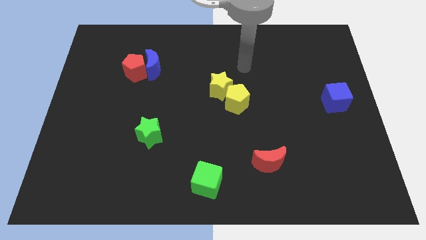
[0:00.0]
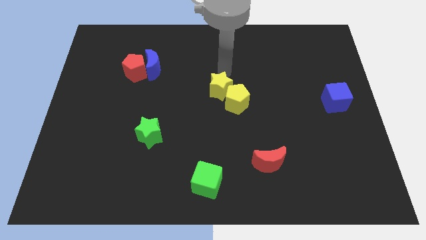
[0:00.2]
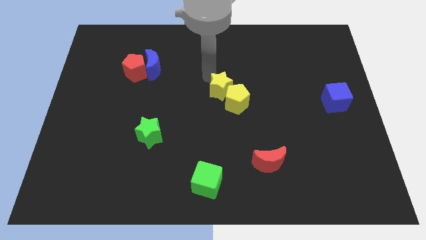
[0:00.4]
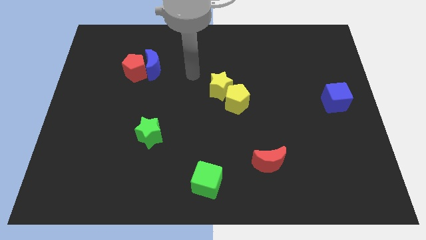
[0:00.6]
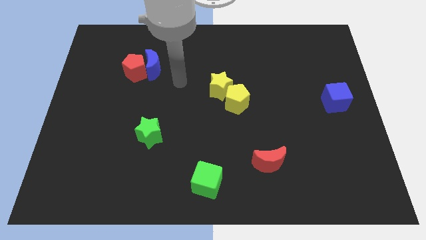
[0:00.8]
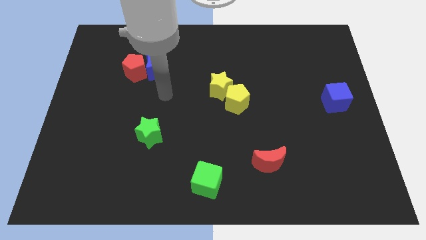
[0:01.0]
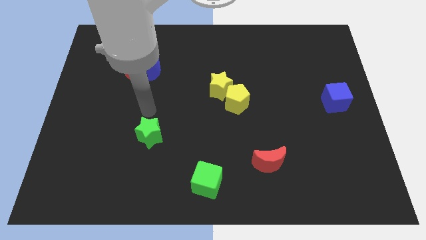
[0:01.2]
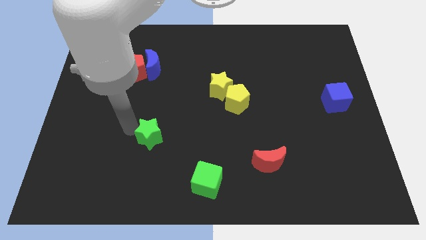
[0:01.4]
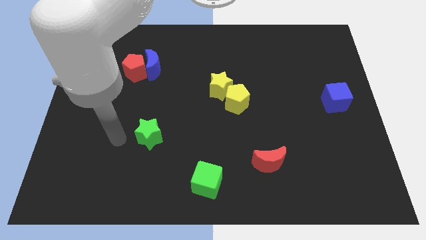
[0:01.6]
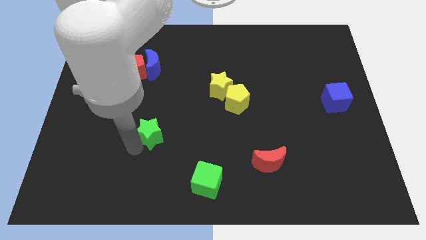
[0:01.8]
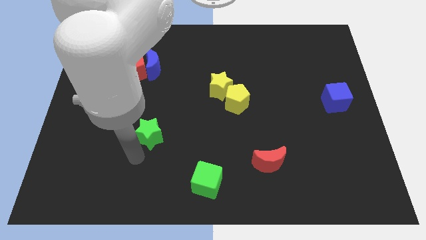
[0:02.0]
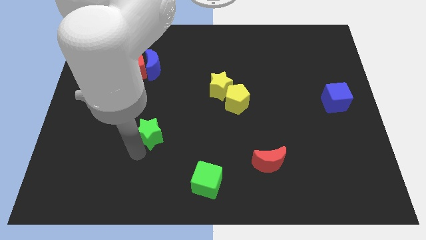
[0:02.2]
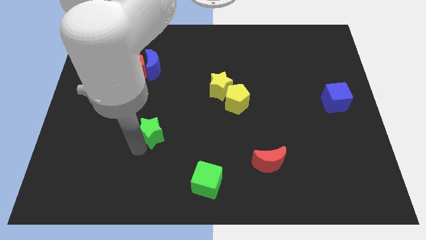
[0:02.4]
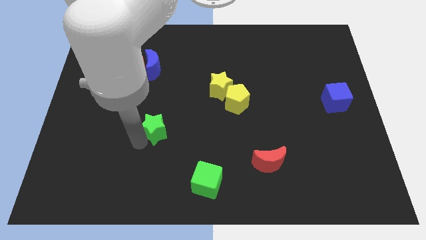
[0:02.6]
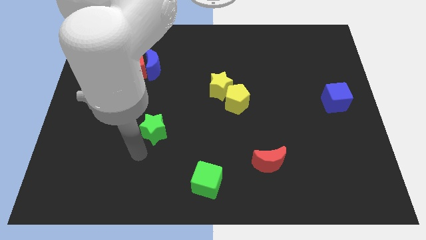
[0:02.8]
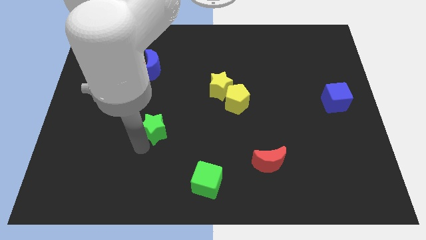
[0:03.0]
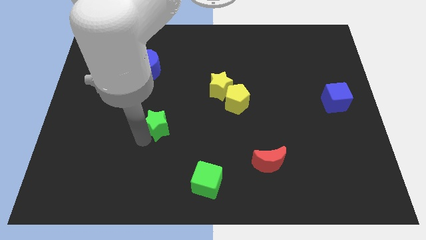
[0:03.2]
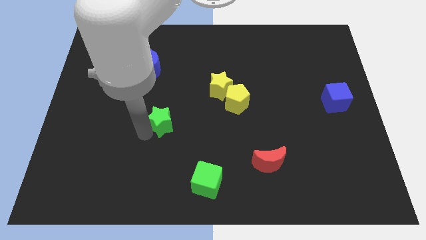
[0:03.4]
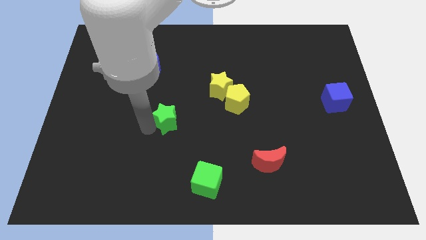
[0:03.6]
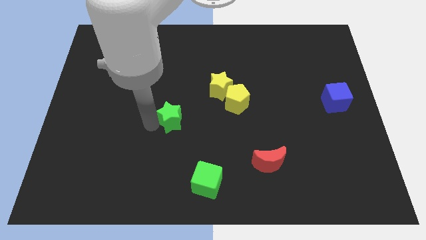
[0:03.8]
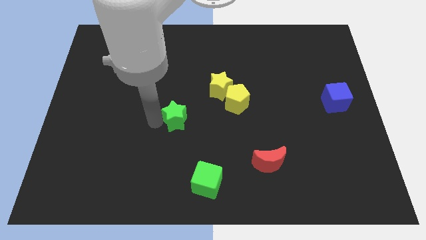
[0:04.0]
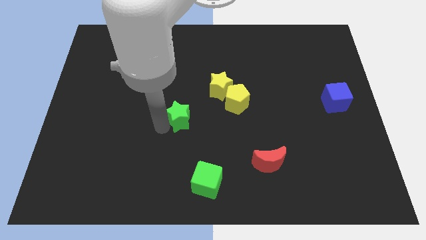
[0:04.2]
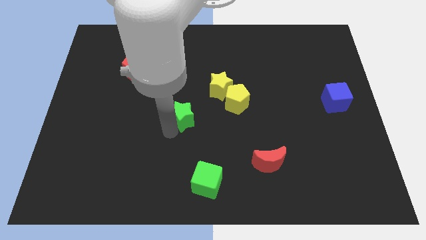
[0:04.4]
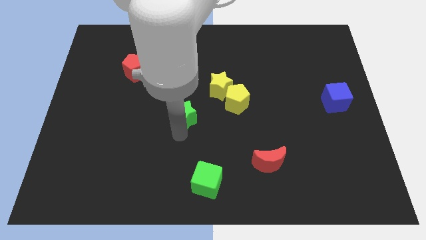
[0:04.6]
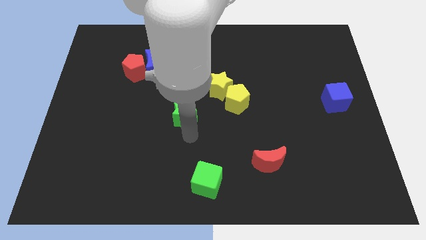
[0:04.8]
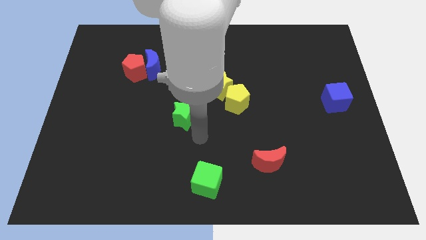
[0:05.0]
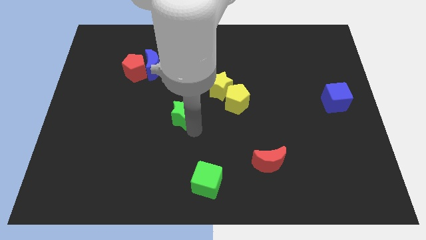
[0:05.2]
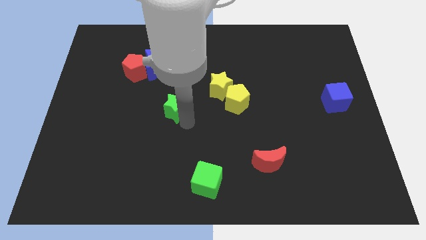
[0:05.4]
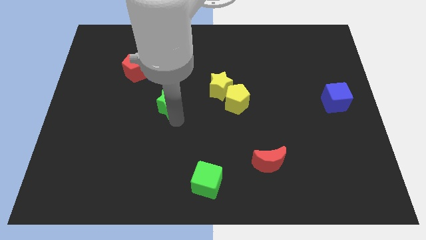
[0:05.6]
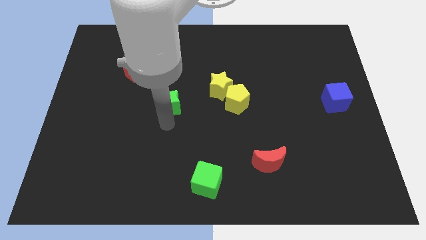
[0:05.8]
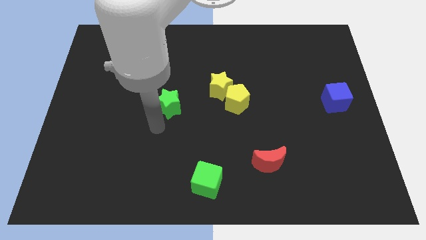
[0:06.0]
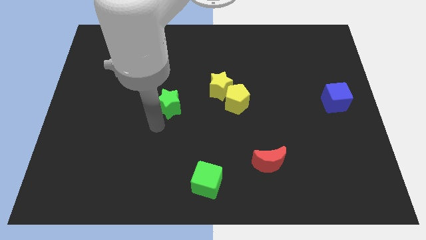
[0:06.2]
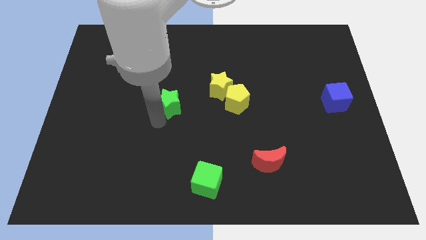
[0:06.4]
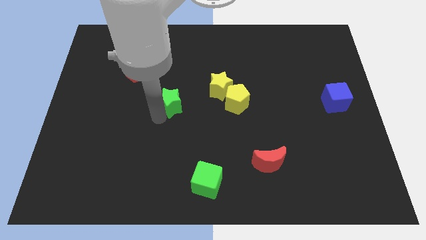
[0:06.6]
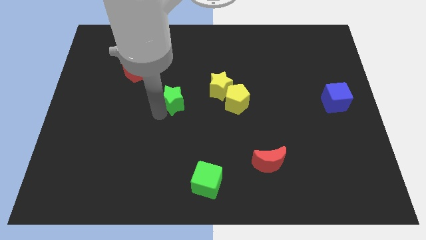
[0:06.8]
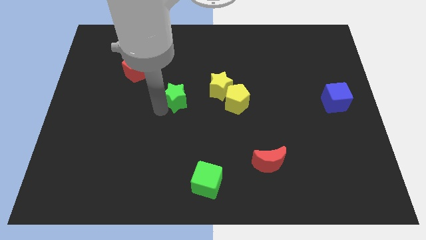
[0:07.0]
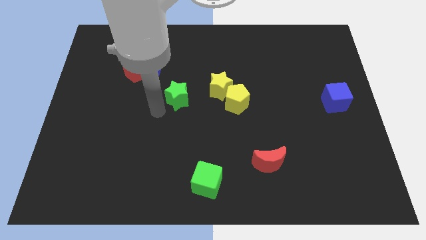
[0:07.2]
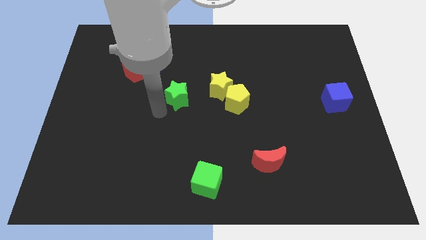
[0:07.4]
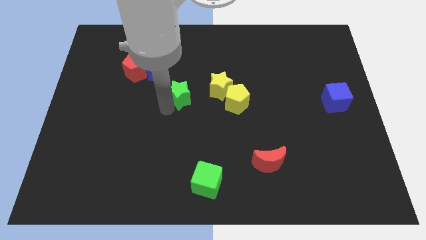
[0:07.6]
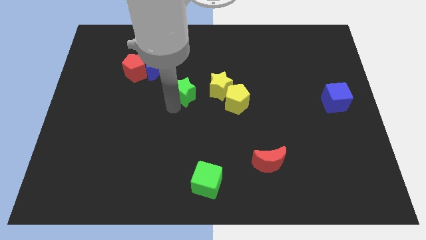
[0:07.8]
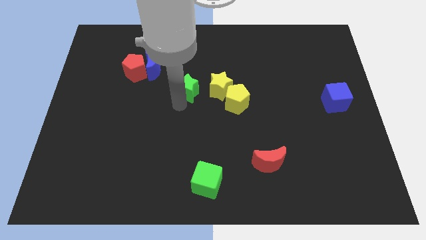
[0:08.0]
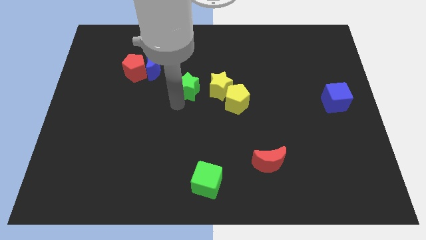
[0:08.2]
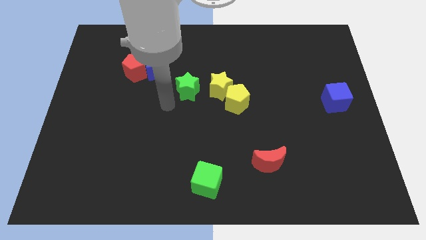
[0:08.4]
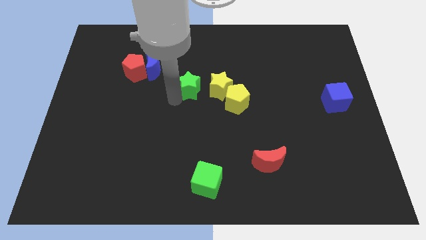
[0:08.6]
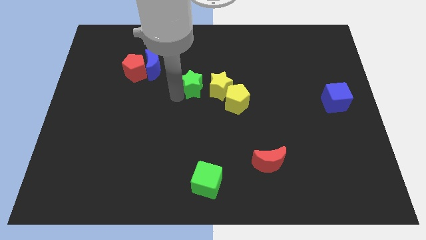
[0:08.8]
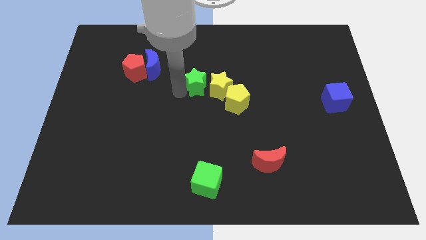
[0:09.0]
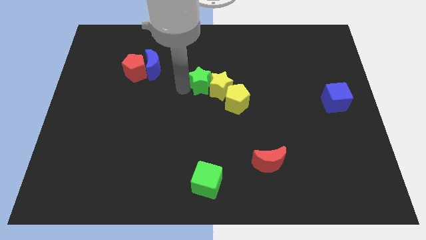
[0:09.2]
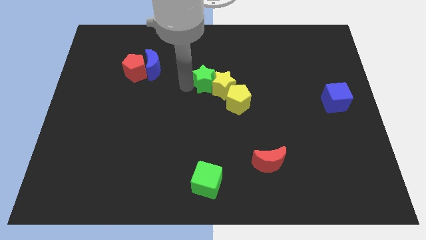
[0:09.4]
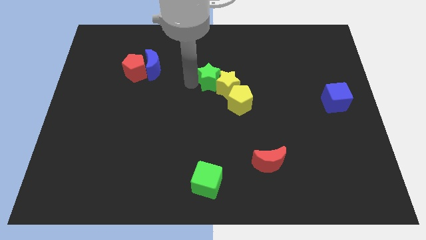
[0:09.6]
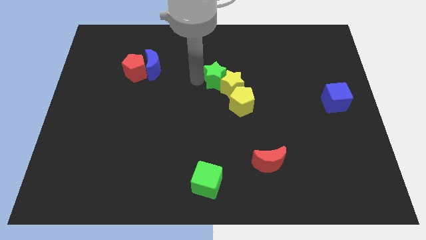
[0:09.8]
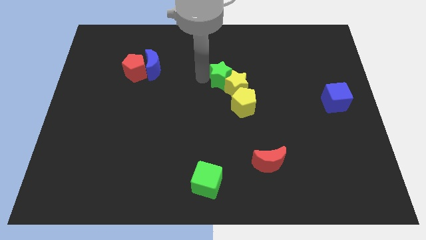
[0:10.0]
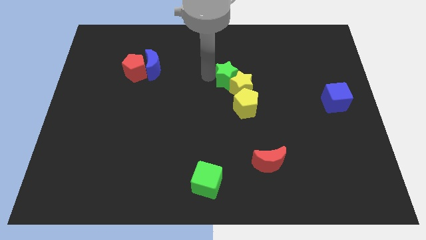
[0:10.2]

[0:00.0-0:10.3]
put the green star to the top of the yellow pentagon

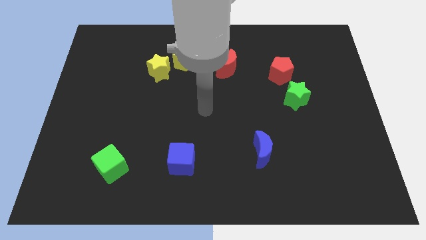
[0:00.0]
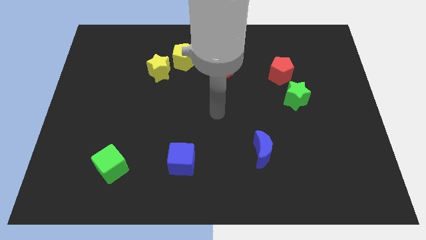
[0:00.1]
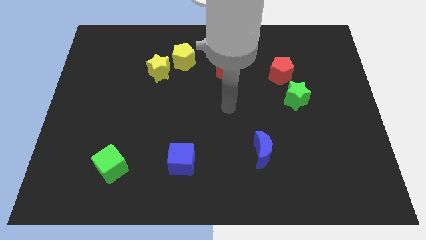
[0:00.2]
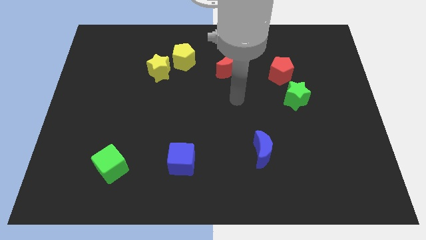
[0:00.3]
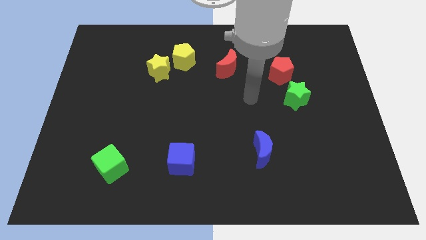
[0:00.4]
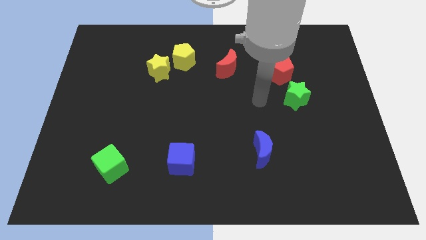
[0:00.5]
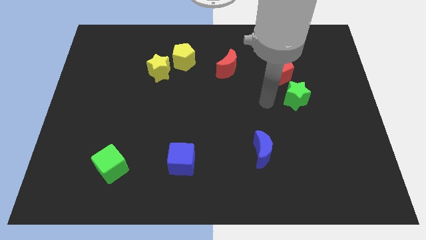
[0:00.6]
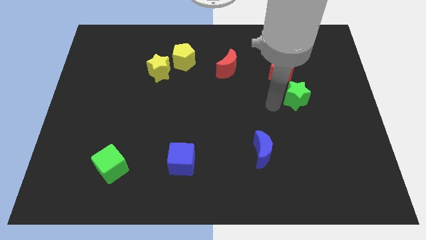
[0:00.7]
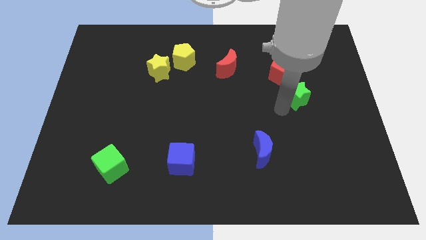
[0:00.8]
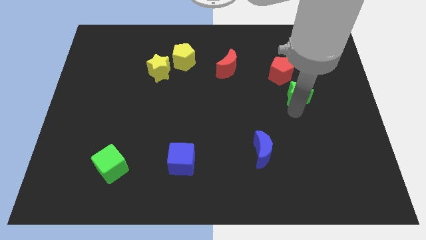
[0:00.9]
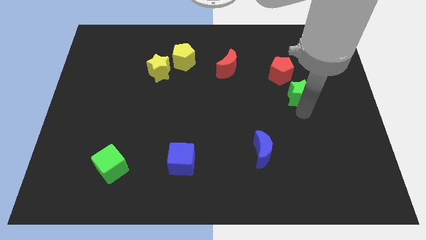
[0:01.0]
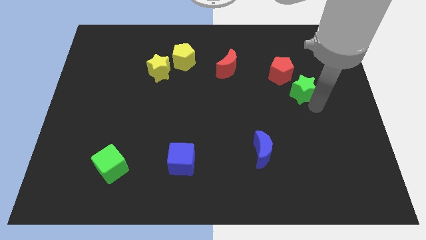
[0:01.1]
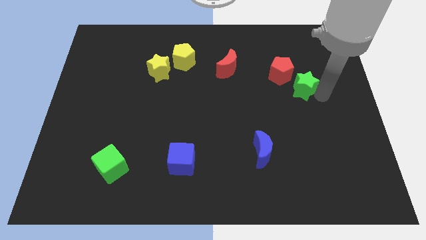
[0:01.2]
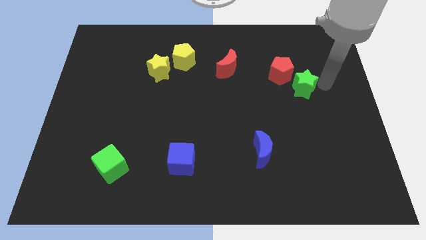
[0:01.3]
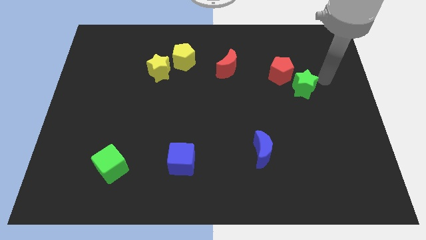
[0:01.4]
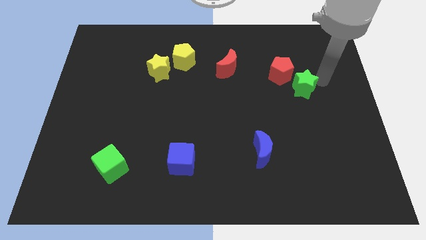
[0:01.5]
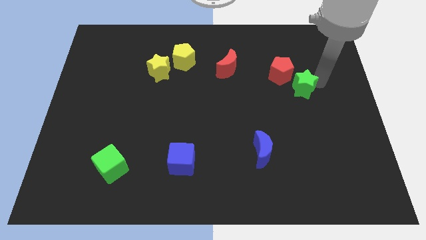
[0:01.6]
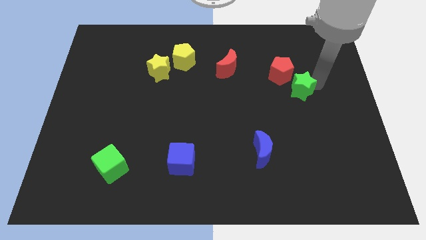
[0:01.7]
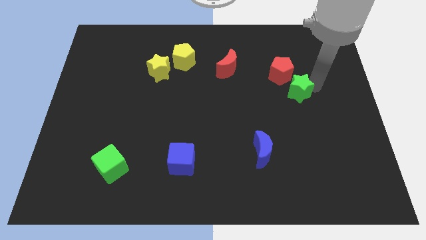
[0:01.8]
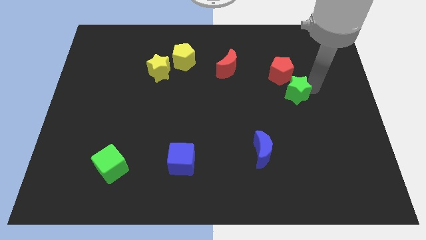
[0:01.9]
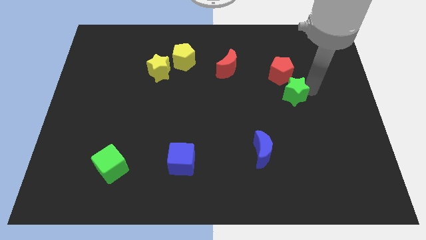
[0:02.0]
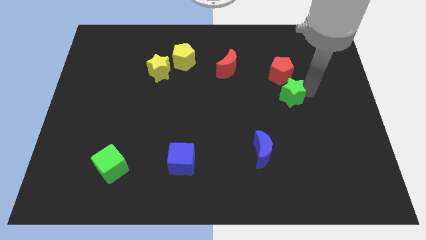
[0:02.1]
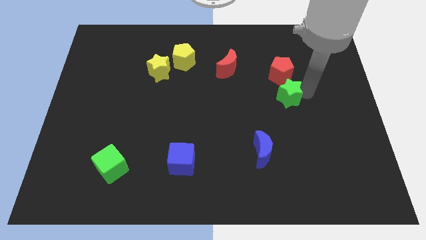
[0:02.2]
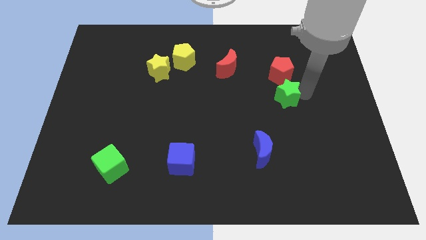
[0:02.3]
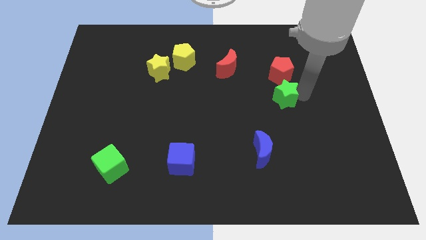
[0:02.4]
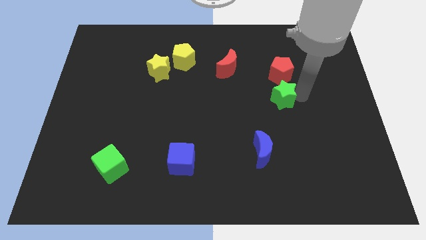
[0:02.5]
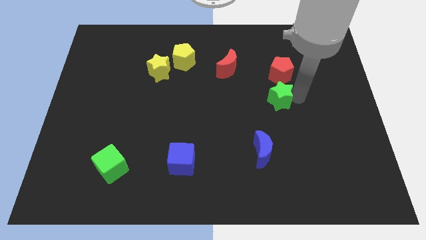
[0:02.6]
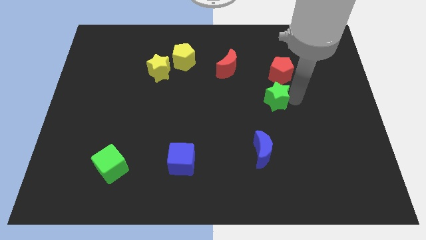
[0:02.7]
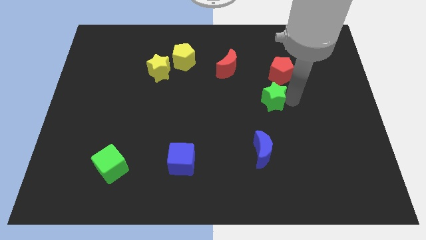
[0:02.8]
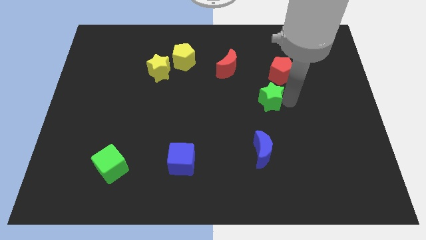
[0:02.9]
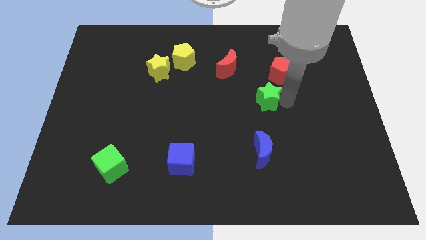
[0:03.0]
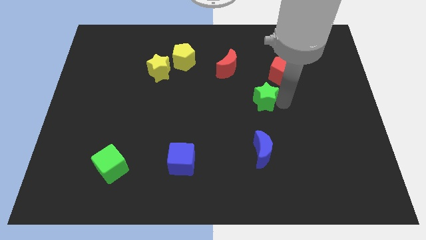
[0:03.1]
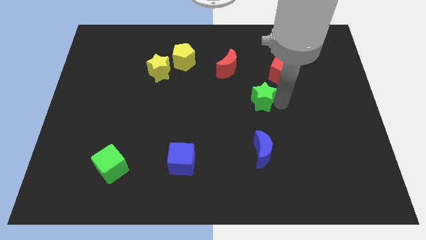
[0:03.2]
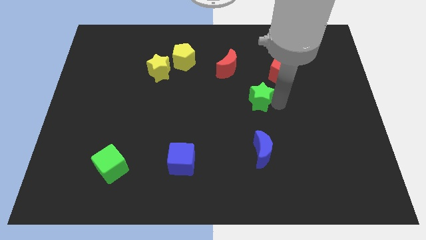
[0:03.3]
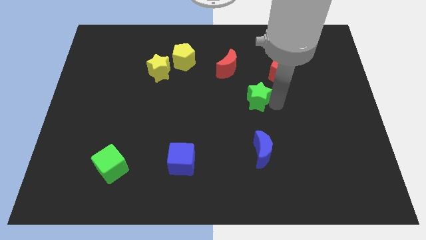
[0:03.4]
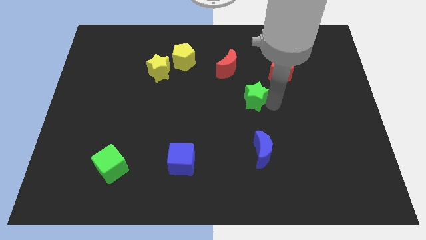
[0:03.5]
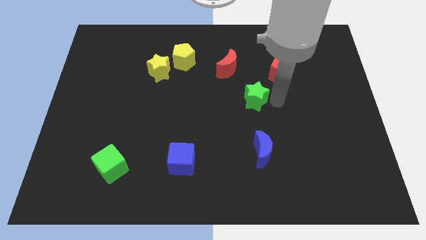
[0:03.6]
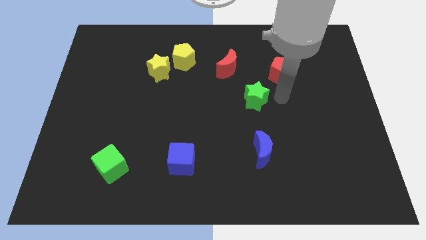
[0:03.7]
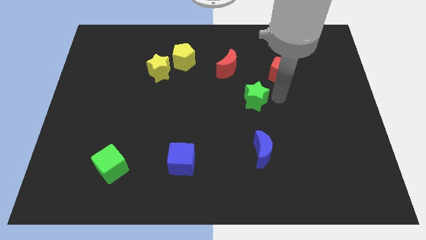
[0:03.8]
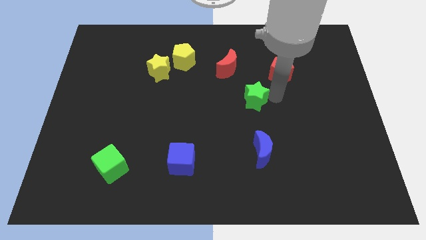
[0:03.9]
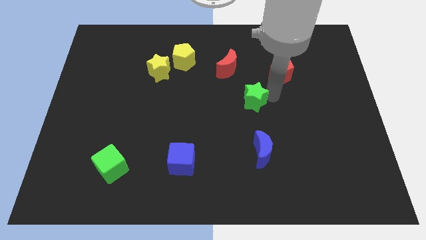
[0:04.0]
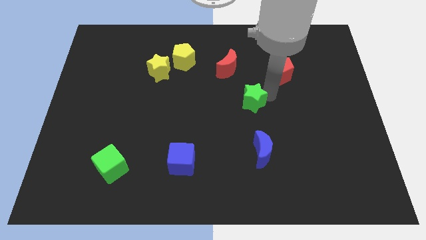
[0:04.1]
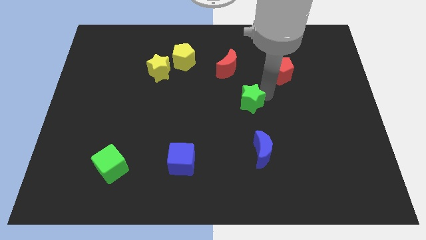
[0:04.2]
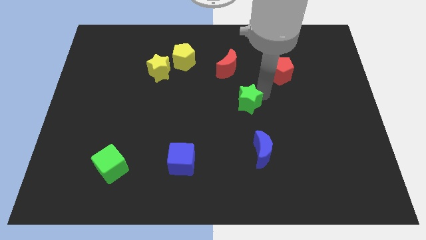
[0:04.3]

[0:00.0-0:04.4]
push the green star to the bottom of the red moon
